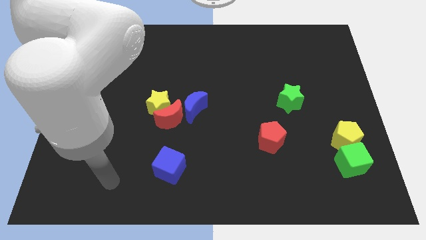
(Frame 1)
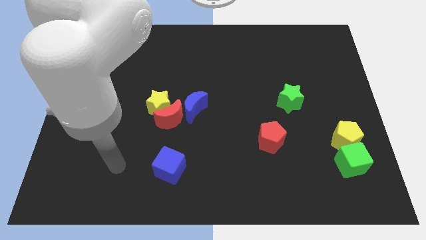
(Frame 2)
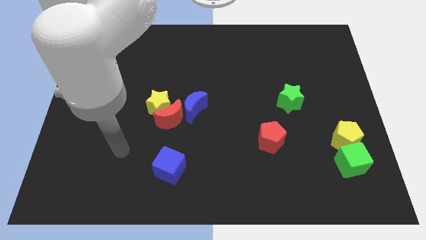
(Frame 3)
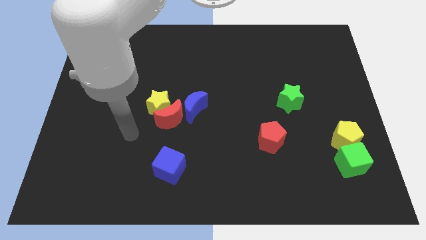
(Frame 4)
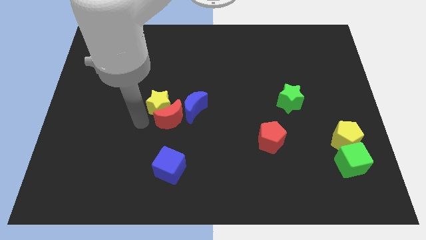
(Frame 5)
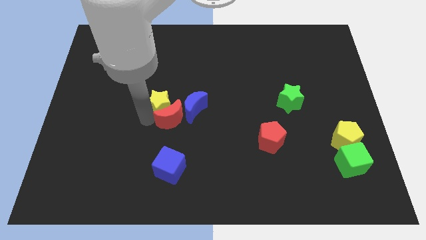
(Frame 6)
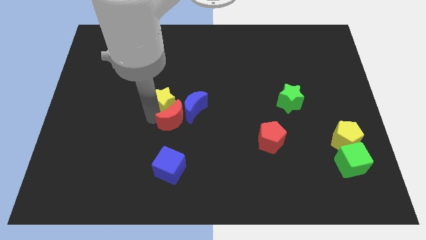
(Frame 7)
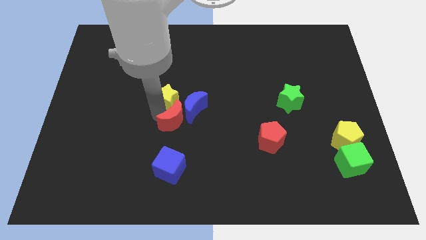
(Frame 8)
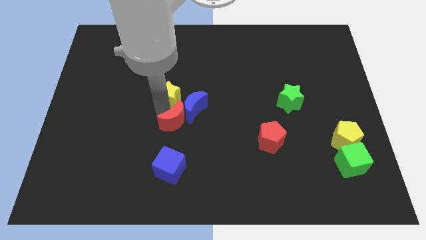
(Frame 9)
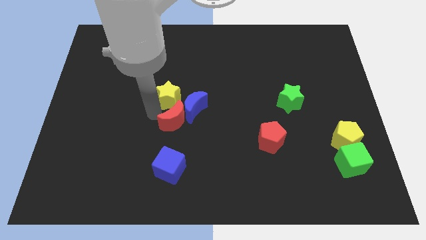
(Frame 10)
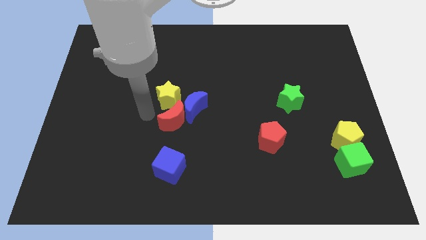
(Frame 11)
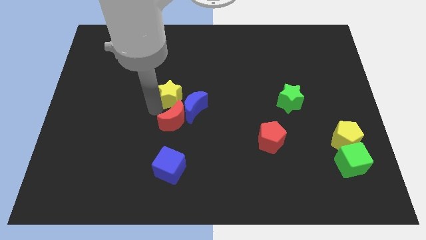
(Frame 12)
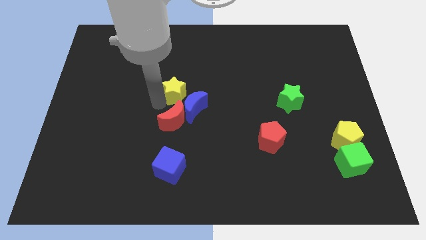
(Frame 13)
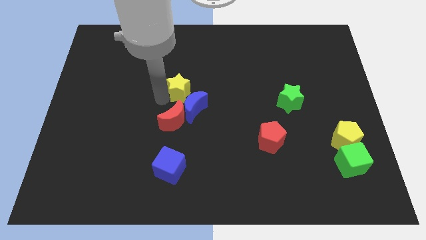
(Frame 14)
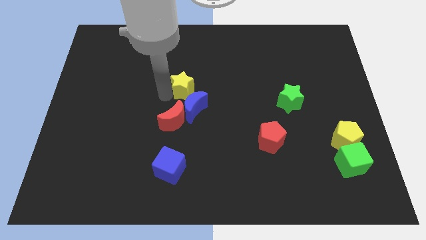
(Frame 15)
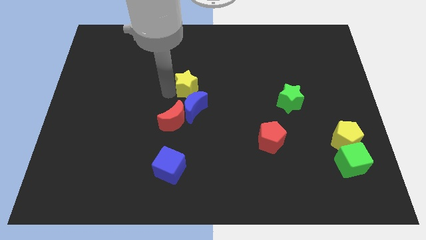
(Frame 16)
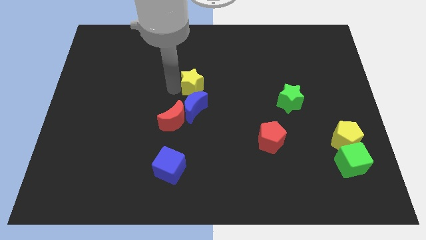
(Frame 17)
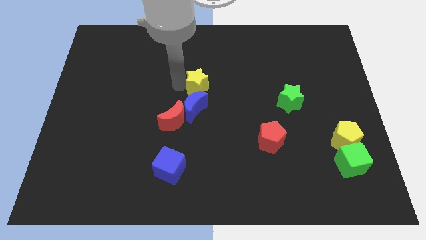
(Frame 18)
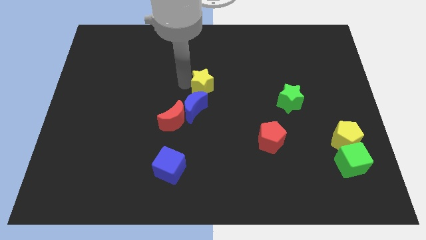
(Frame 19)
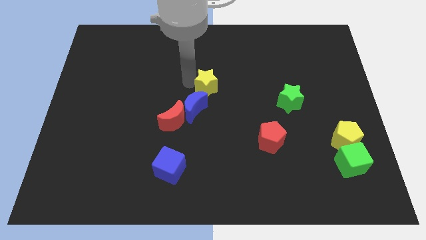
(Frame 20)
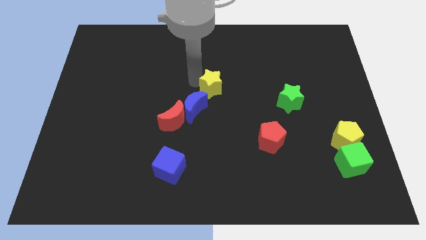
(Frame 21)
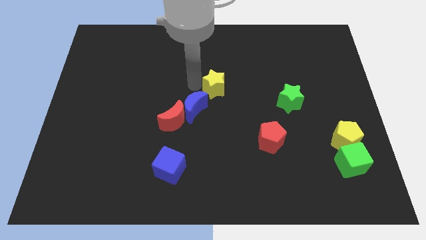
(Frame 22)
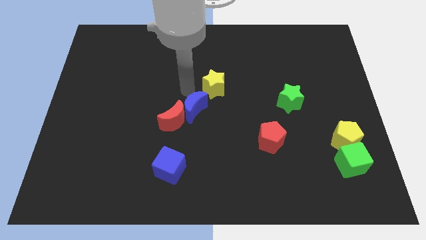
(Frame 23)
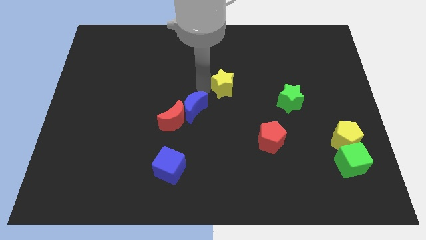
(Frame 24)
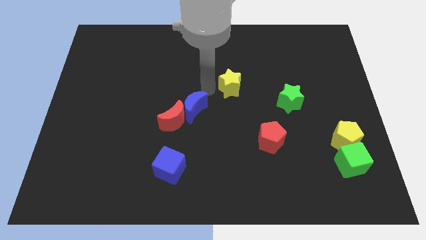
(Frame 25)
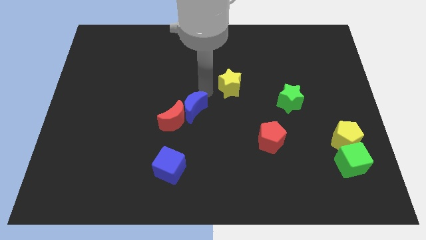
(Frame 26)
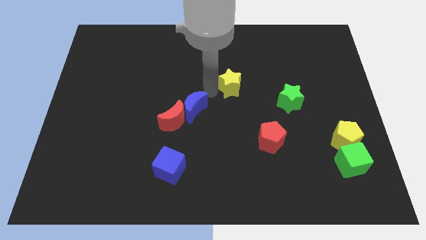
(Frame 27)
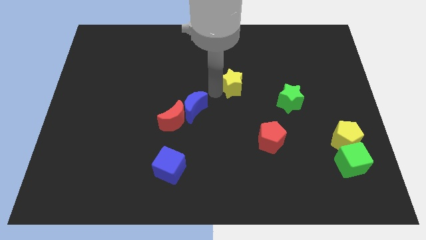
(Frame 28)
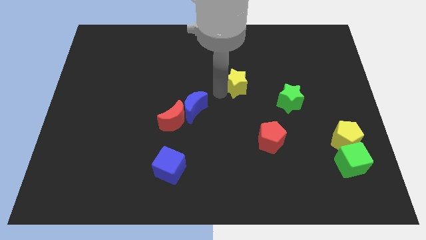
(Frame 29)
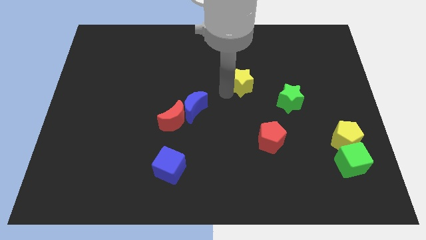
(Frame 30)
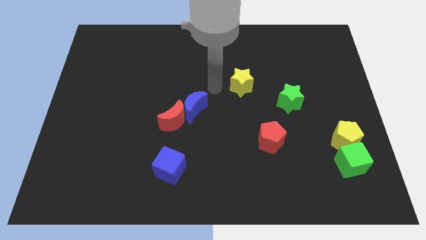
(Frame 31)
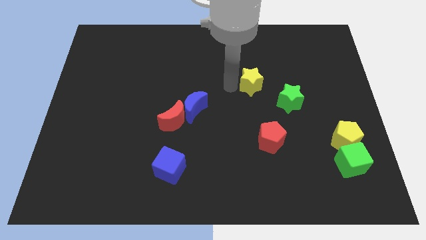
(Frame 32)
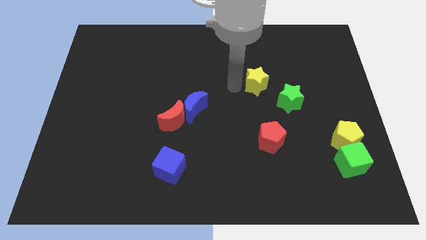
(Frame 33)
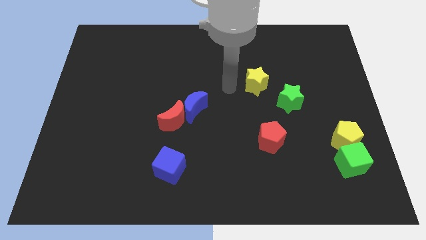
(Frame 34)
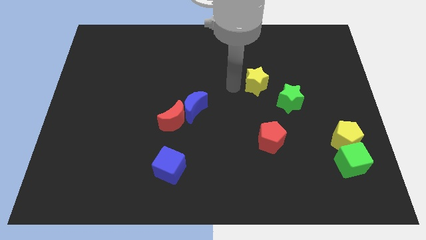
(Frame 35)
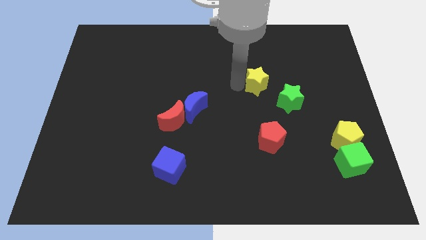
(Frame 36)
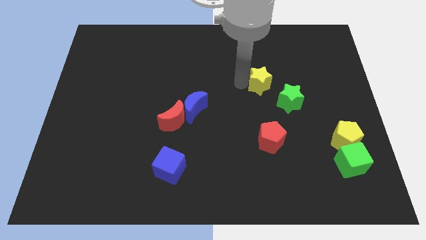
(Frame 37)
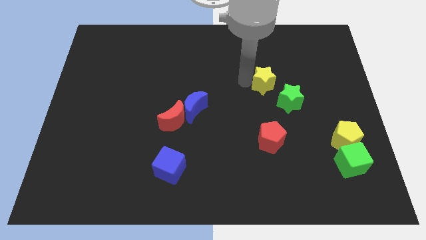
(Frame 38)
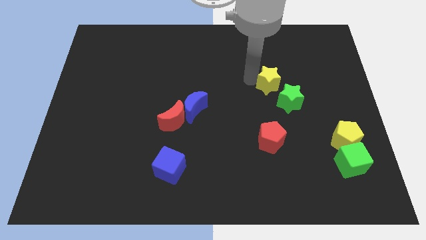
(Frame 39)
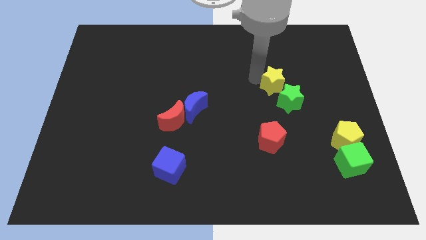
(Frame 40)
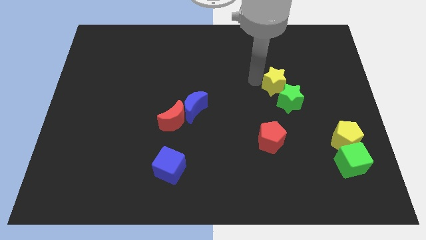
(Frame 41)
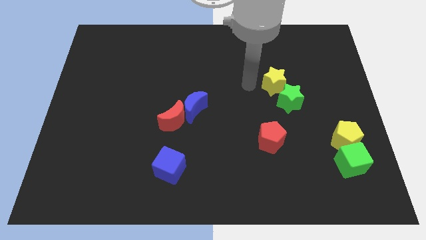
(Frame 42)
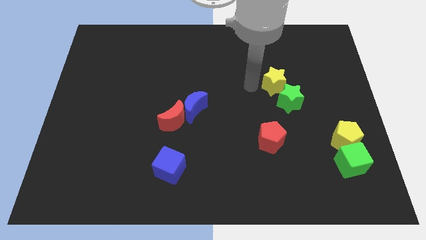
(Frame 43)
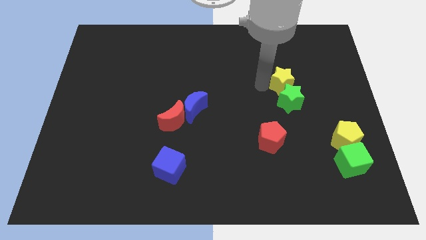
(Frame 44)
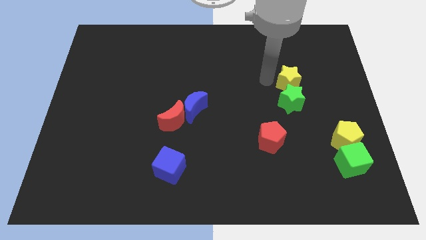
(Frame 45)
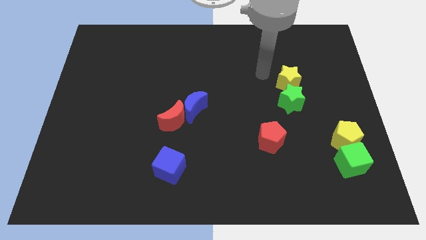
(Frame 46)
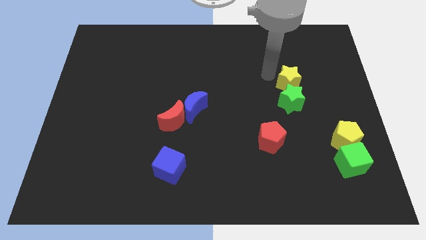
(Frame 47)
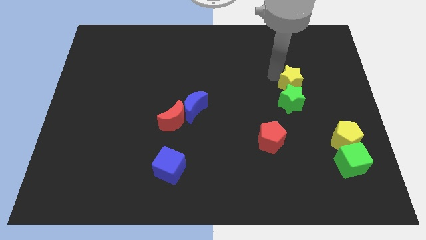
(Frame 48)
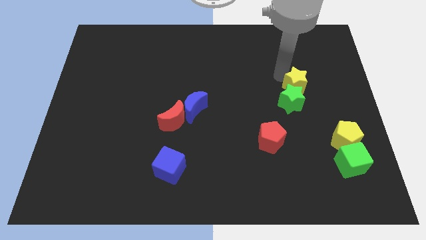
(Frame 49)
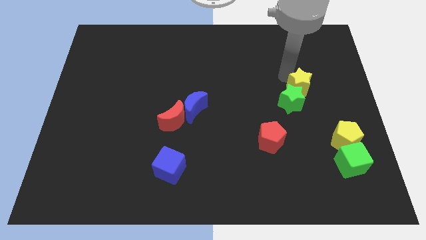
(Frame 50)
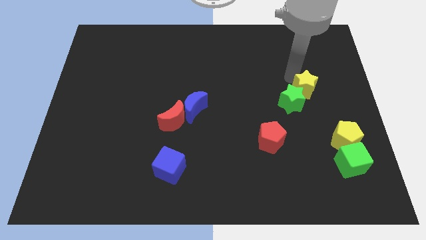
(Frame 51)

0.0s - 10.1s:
slide the yellow star just right of the green star

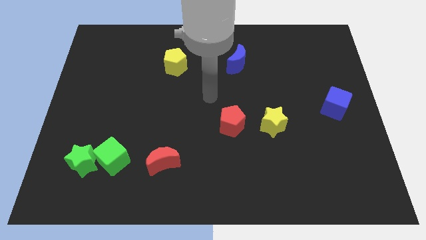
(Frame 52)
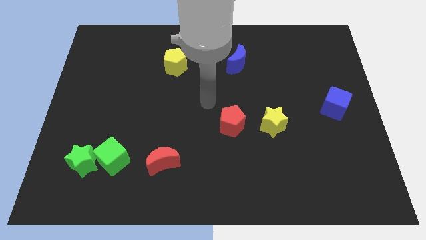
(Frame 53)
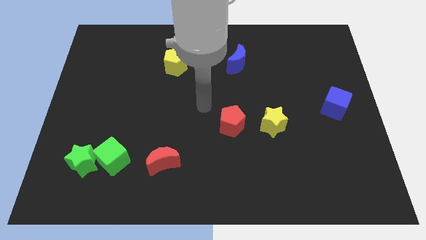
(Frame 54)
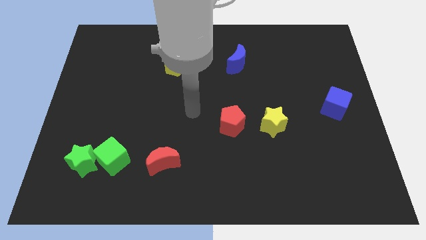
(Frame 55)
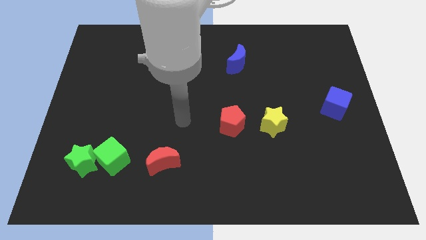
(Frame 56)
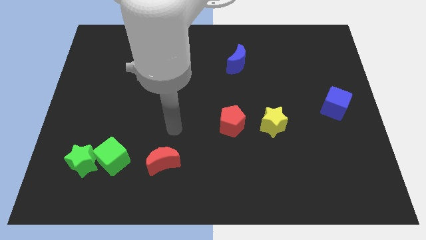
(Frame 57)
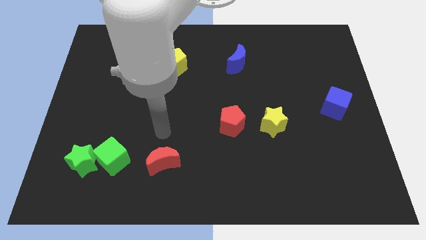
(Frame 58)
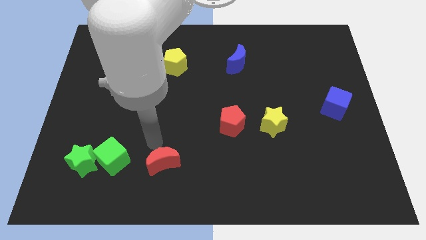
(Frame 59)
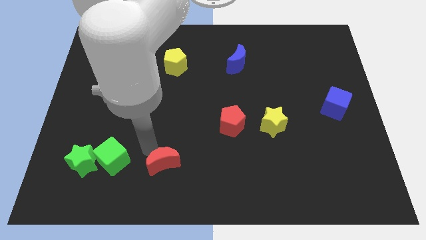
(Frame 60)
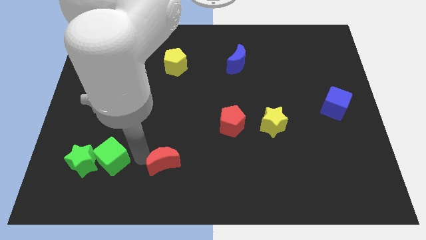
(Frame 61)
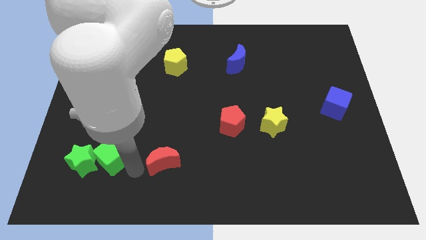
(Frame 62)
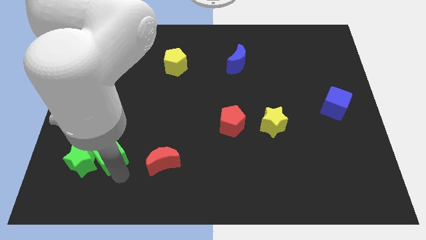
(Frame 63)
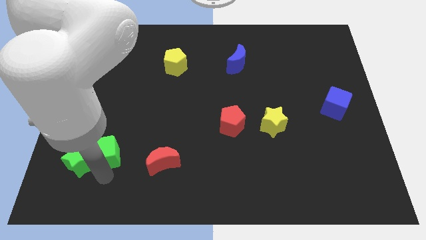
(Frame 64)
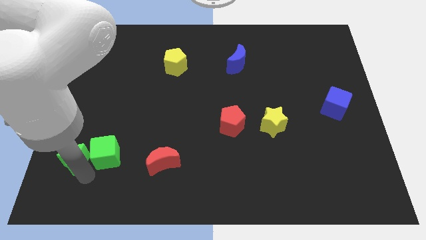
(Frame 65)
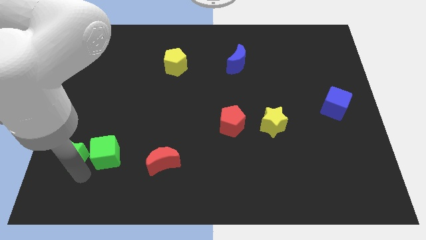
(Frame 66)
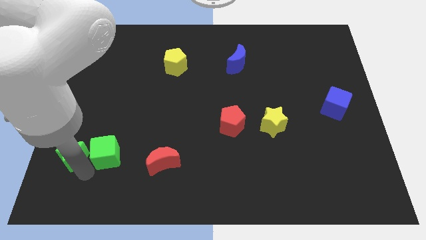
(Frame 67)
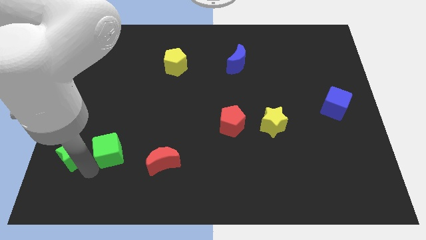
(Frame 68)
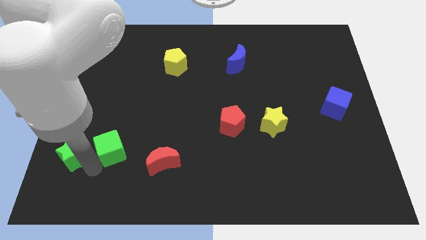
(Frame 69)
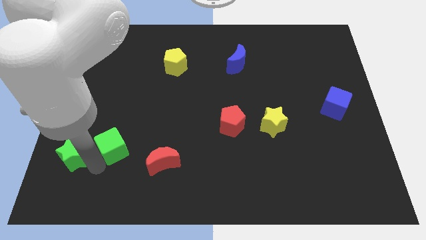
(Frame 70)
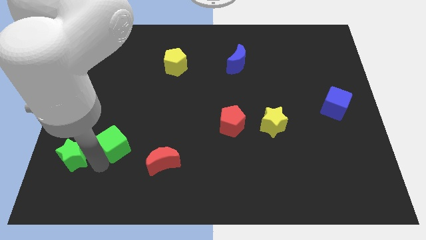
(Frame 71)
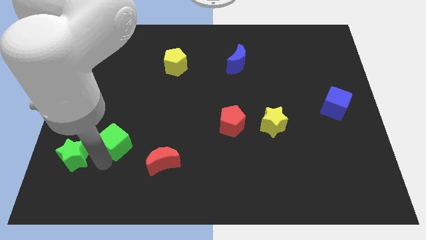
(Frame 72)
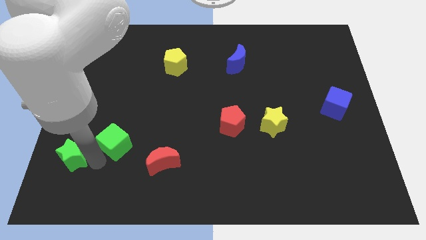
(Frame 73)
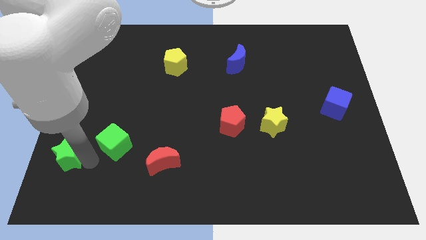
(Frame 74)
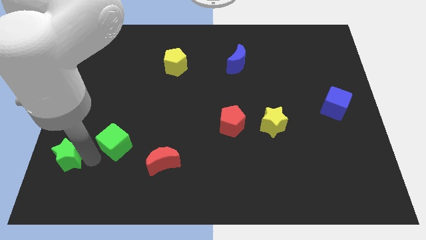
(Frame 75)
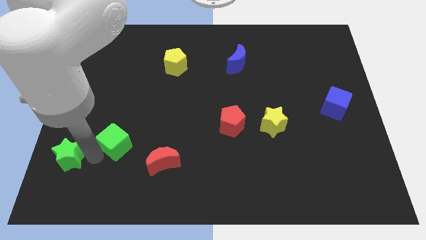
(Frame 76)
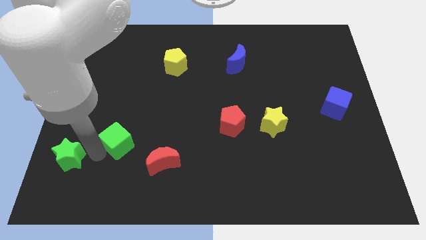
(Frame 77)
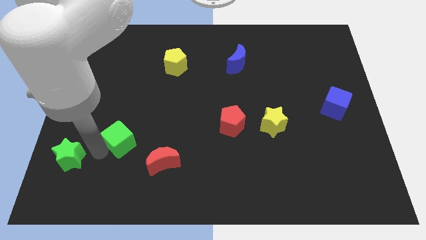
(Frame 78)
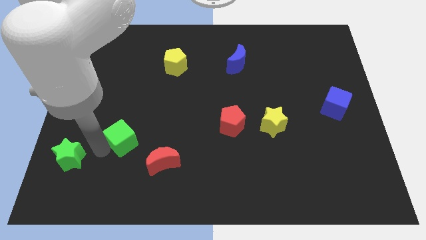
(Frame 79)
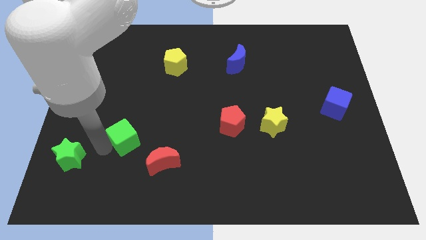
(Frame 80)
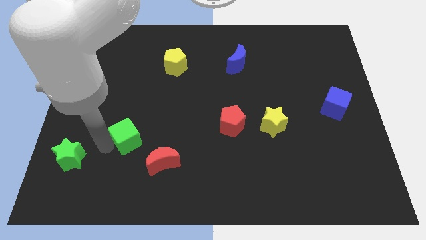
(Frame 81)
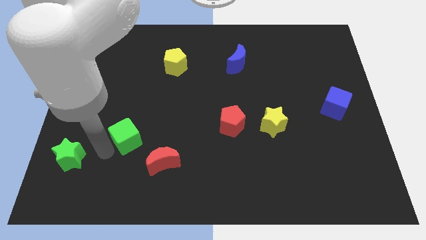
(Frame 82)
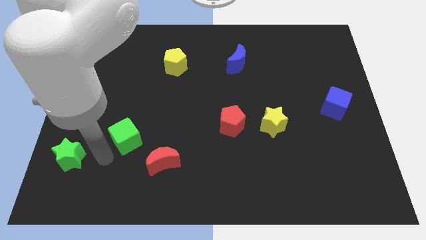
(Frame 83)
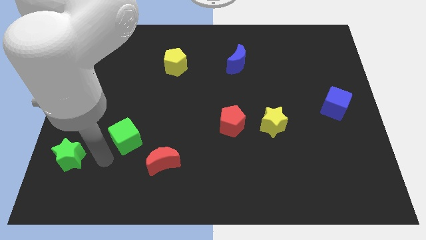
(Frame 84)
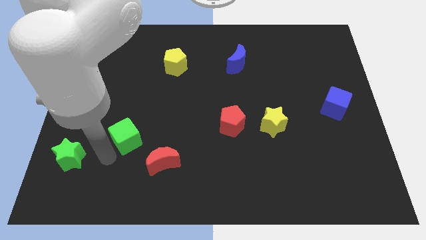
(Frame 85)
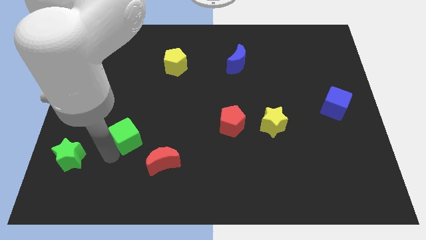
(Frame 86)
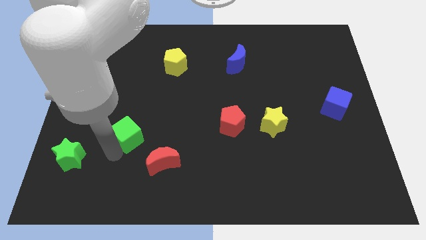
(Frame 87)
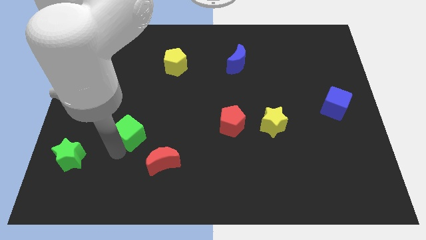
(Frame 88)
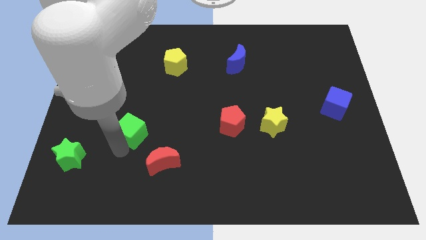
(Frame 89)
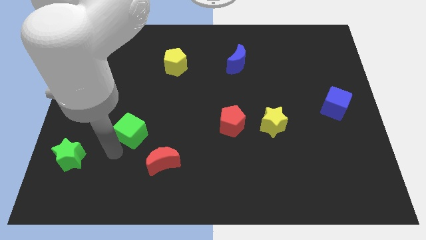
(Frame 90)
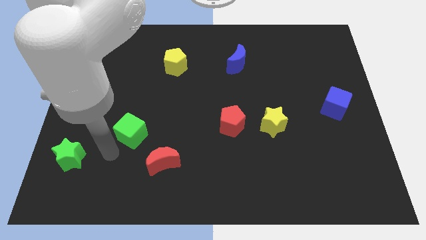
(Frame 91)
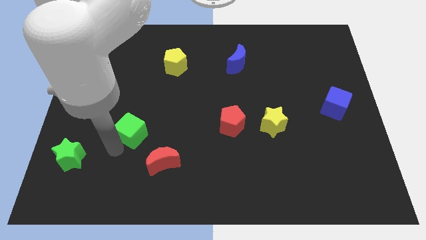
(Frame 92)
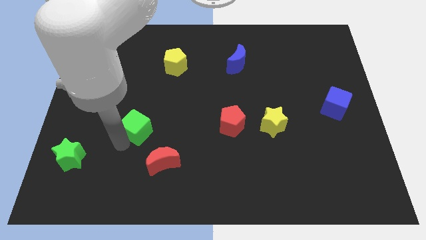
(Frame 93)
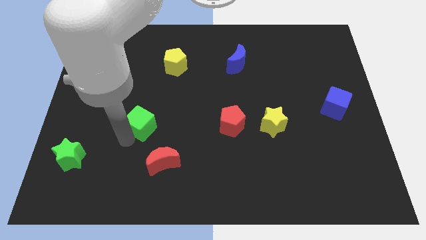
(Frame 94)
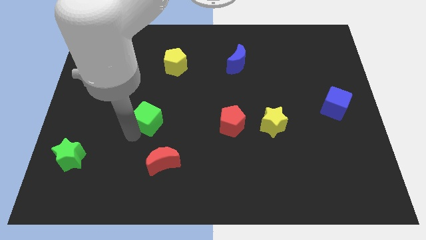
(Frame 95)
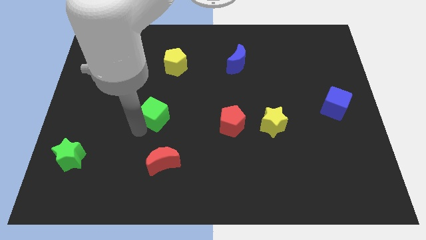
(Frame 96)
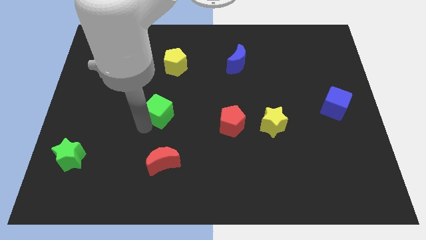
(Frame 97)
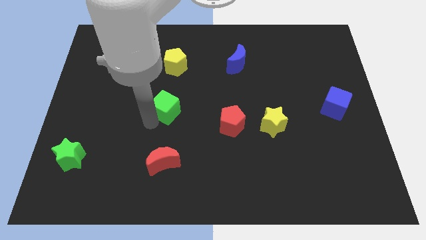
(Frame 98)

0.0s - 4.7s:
slide the green cube to the bottom side of the yellow pentagon
